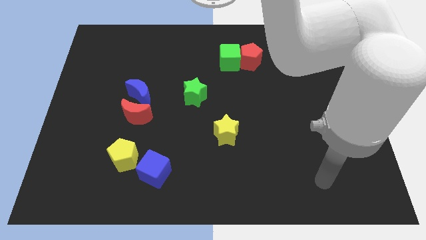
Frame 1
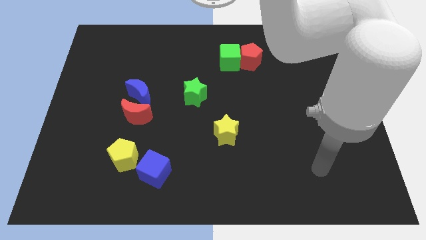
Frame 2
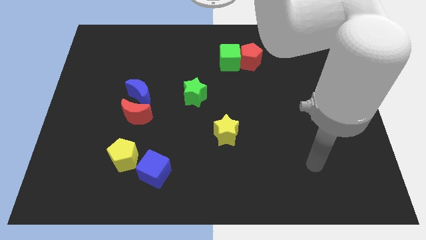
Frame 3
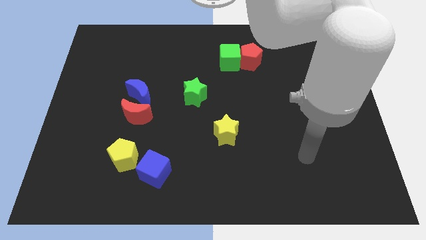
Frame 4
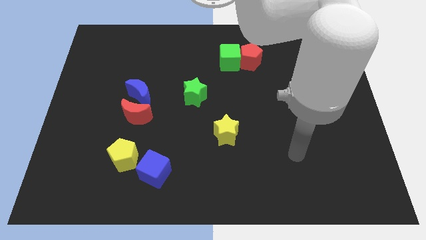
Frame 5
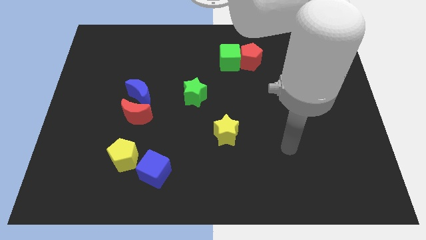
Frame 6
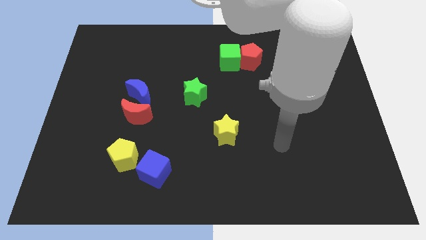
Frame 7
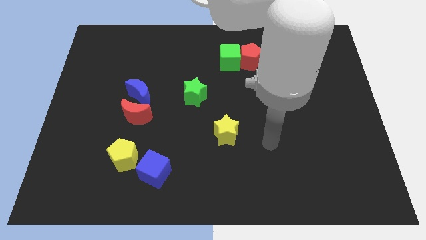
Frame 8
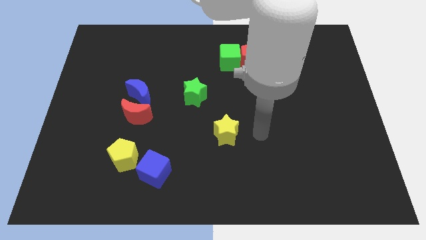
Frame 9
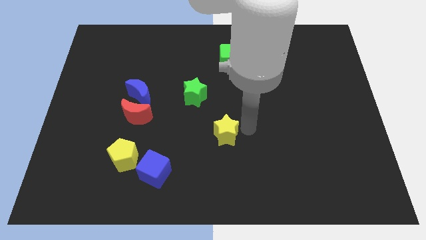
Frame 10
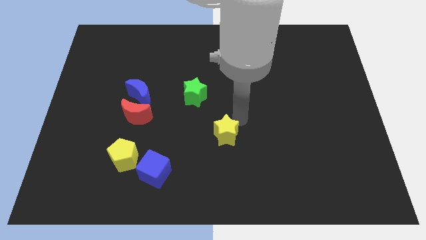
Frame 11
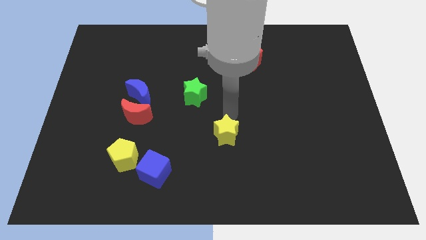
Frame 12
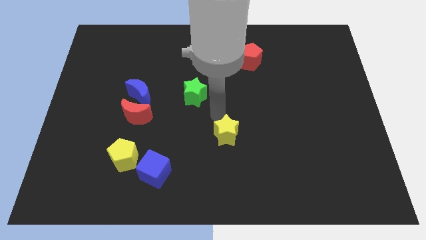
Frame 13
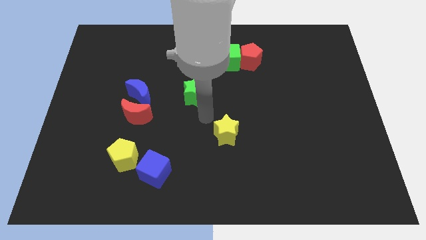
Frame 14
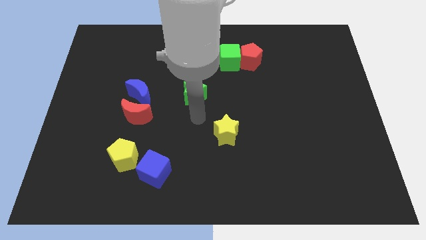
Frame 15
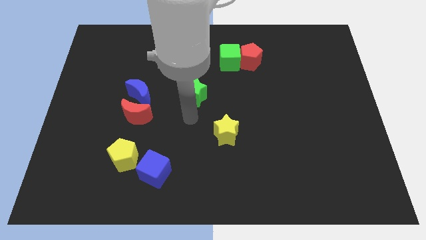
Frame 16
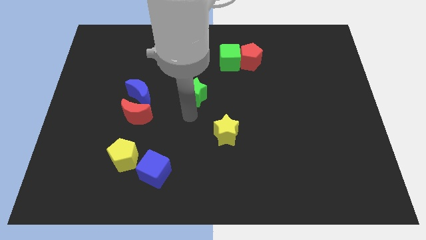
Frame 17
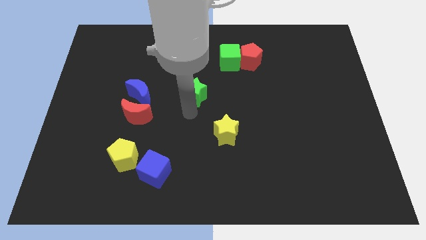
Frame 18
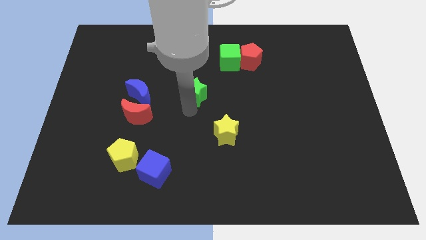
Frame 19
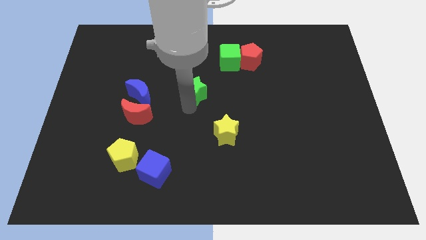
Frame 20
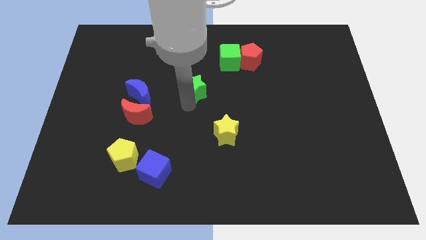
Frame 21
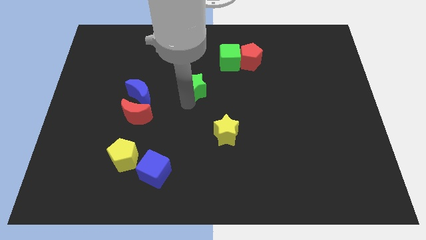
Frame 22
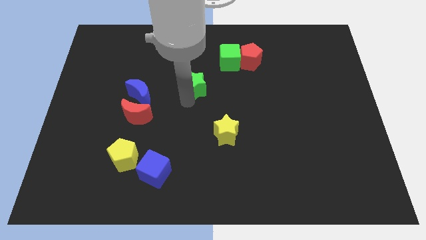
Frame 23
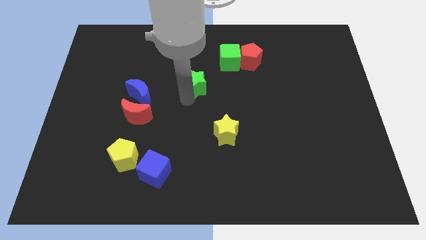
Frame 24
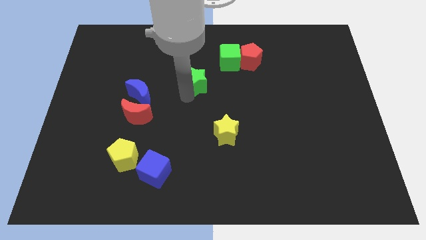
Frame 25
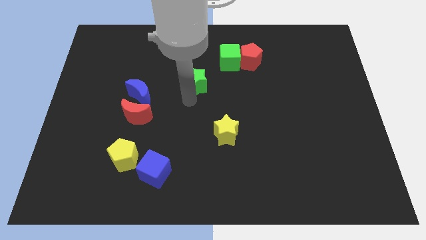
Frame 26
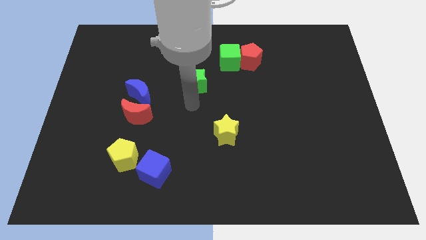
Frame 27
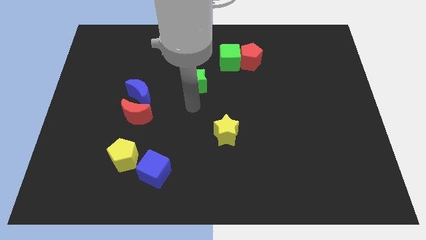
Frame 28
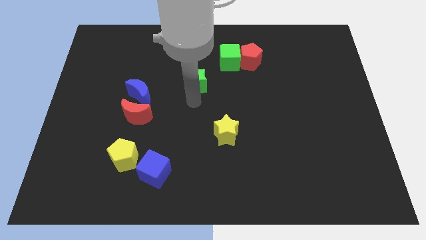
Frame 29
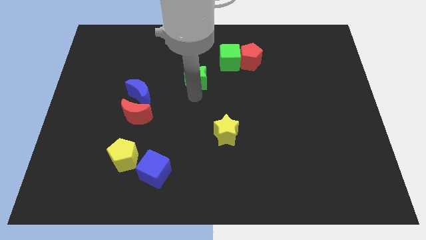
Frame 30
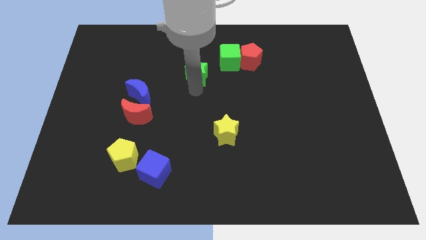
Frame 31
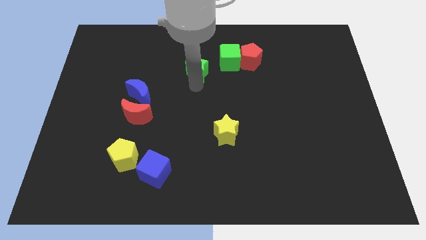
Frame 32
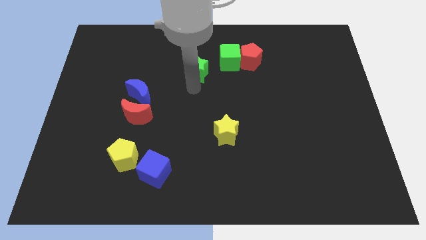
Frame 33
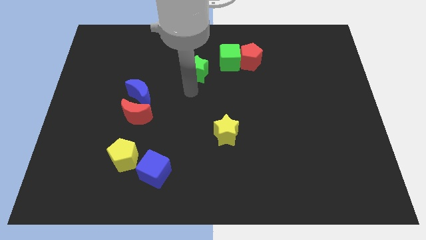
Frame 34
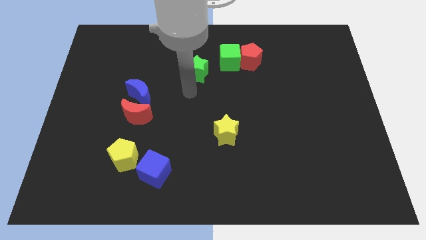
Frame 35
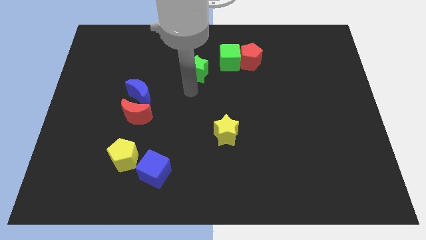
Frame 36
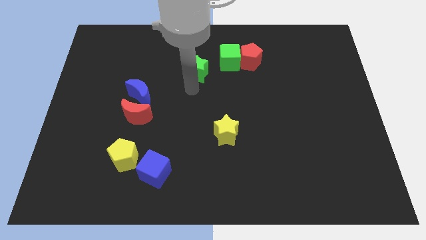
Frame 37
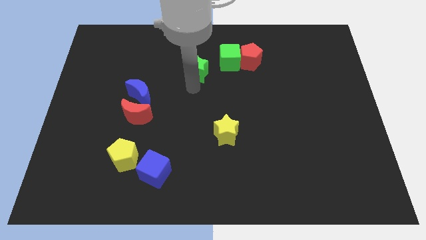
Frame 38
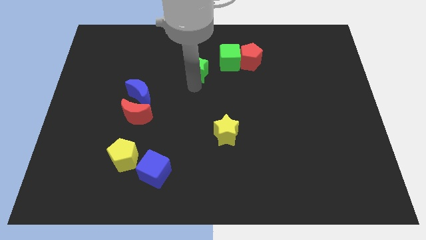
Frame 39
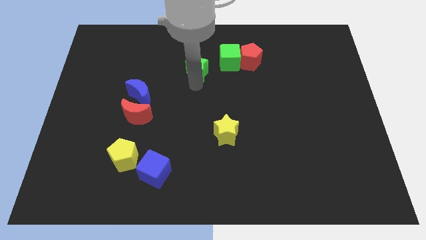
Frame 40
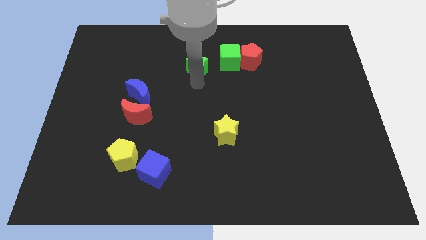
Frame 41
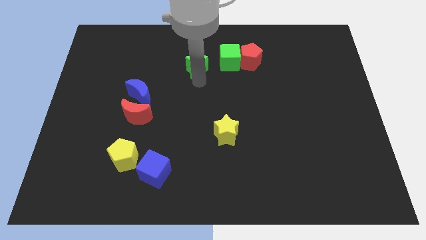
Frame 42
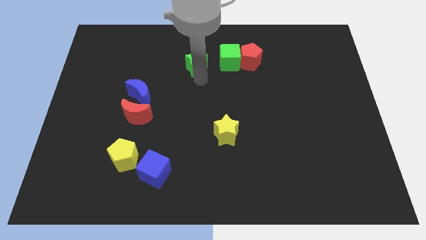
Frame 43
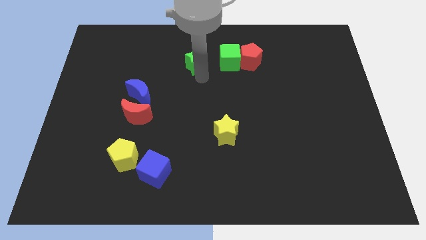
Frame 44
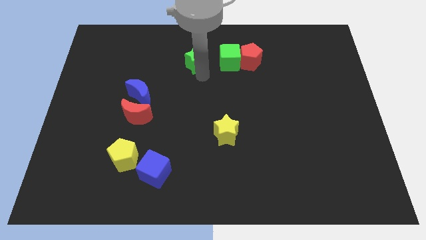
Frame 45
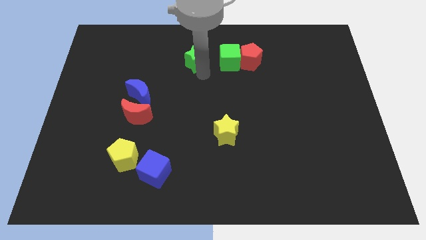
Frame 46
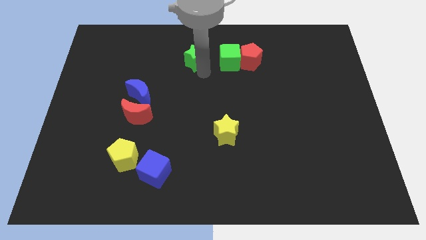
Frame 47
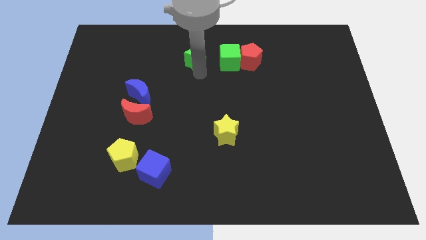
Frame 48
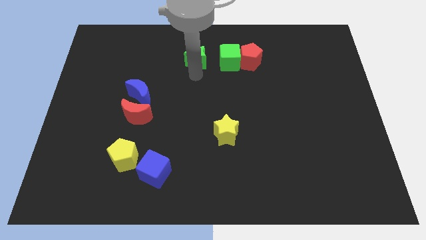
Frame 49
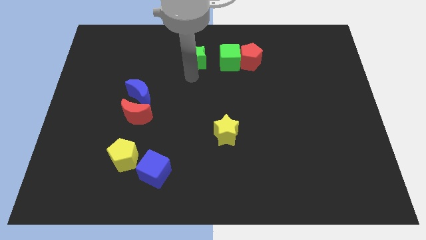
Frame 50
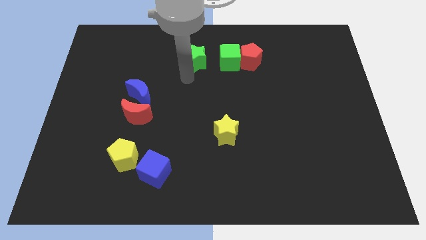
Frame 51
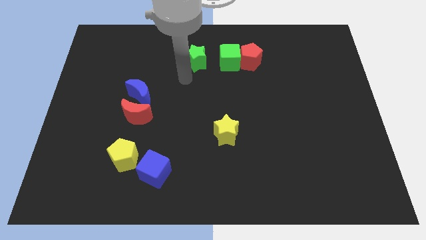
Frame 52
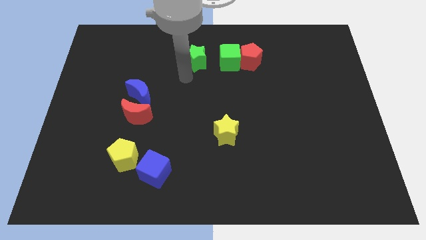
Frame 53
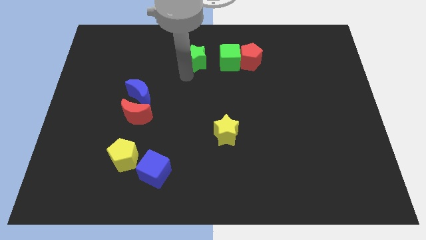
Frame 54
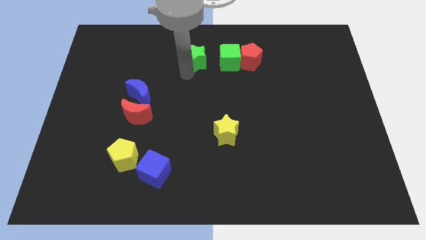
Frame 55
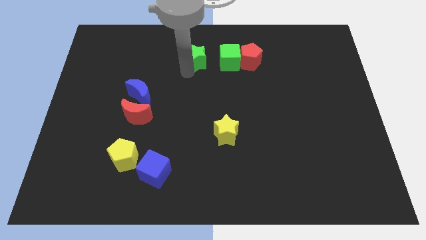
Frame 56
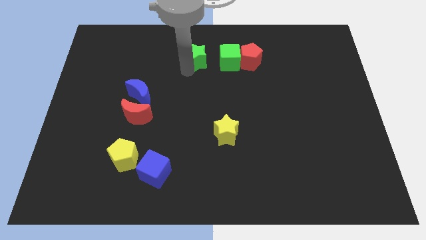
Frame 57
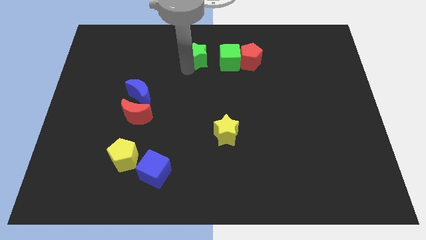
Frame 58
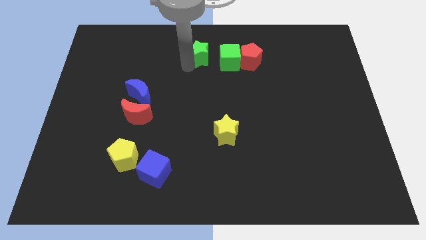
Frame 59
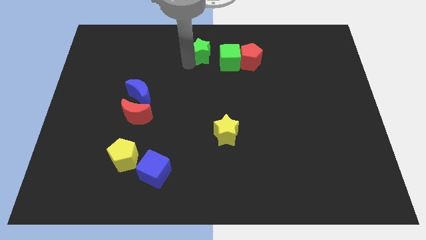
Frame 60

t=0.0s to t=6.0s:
slide the green star to the top side
